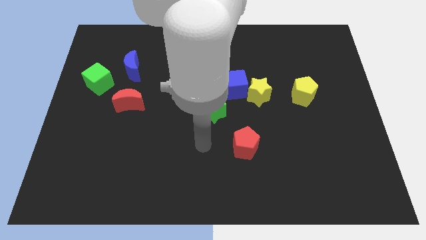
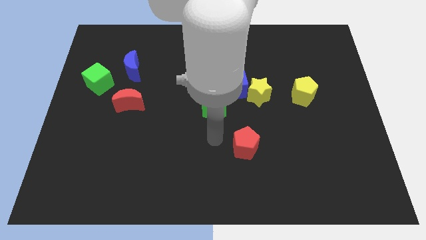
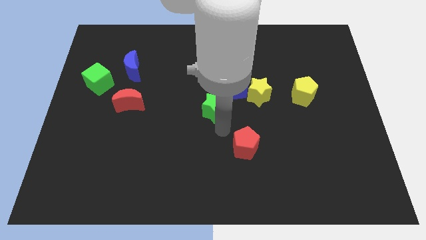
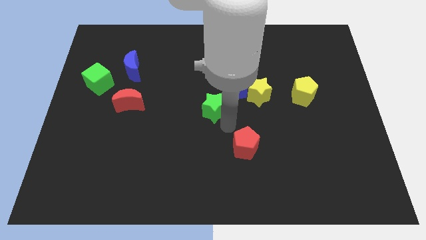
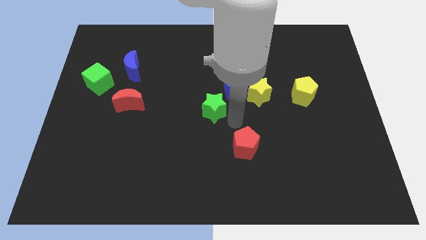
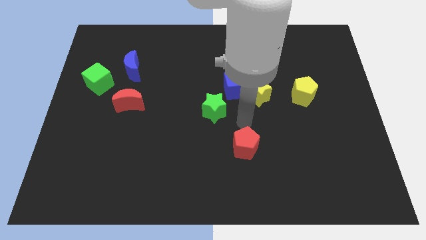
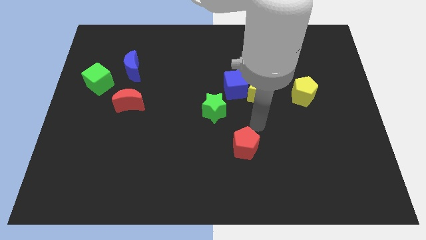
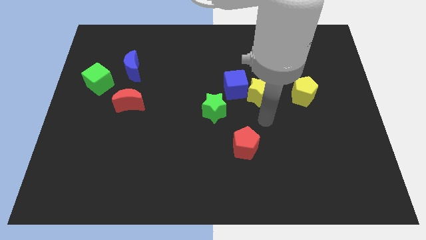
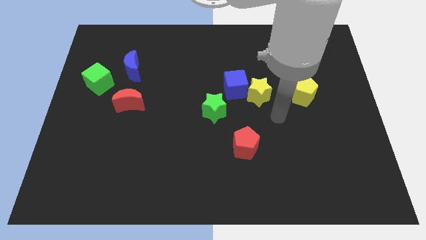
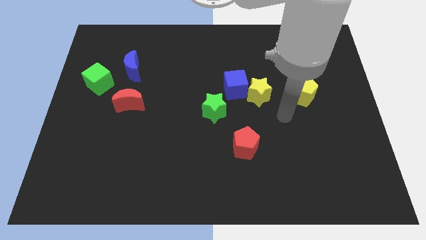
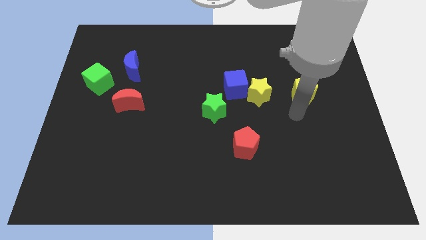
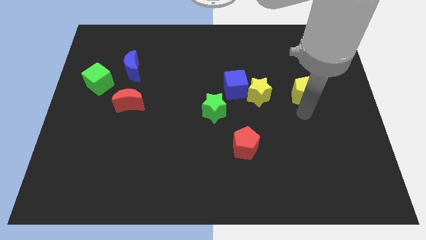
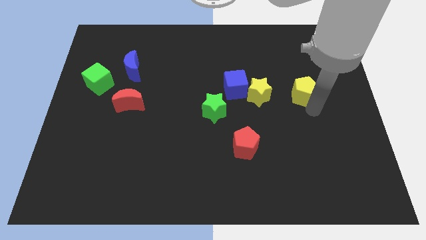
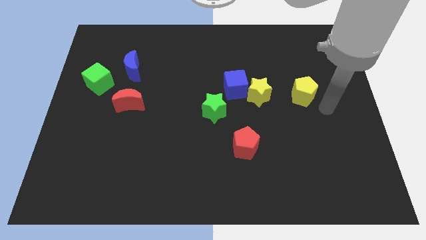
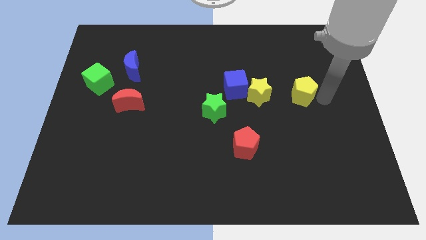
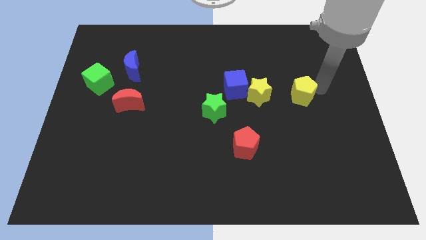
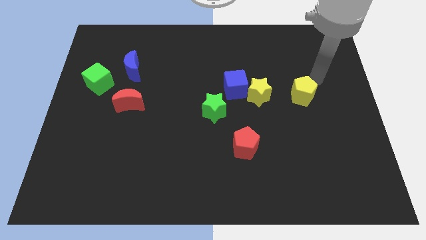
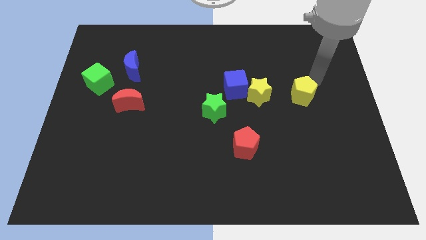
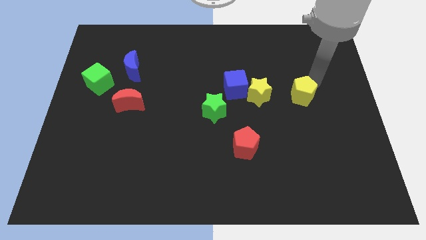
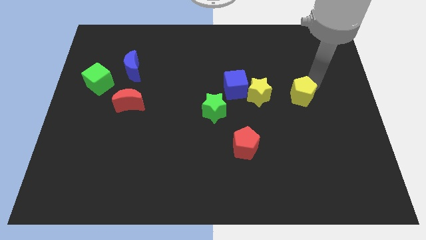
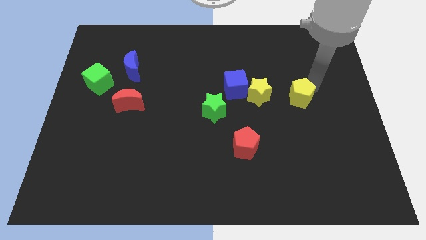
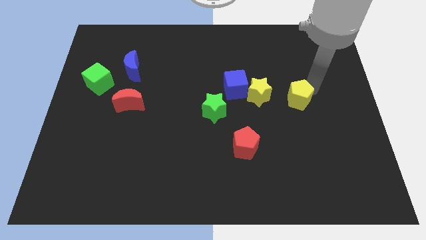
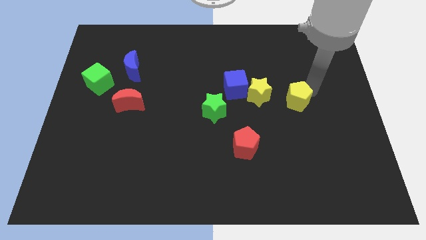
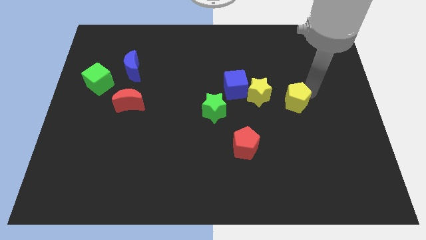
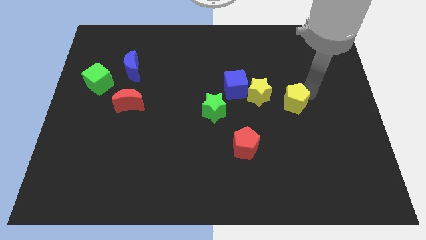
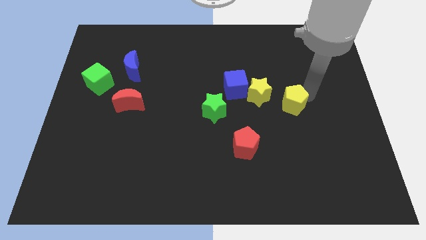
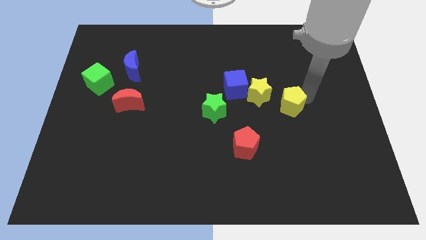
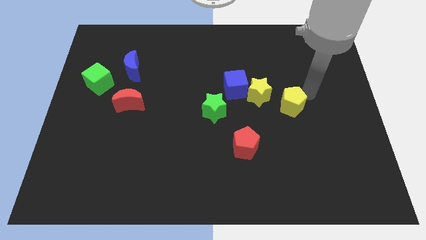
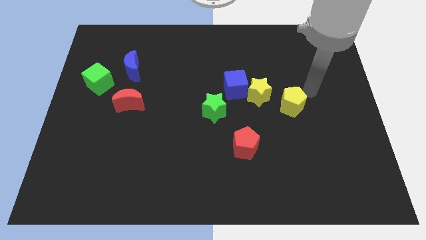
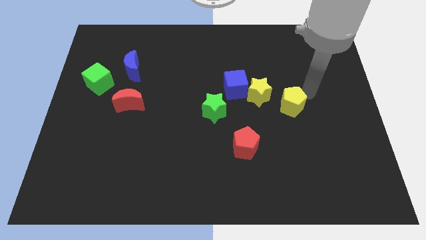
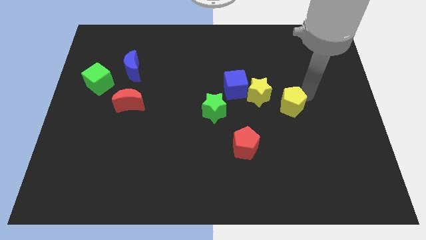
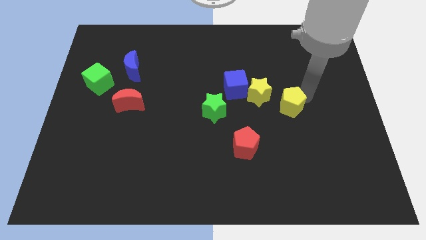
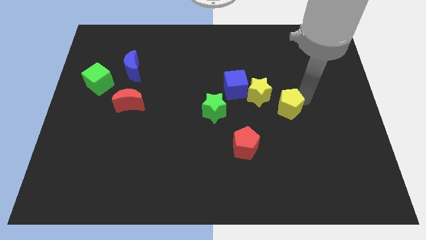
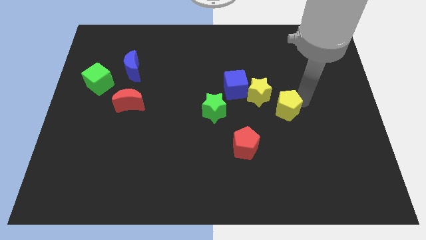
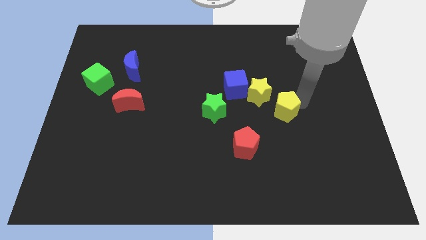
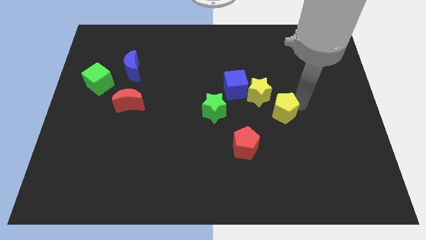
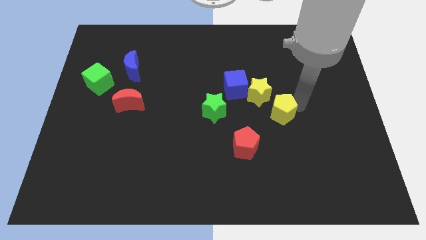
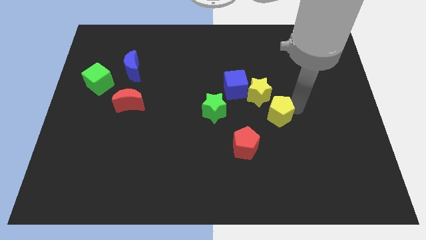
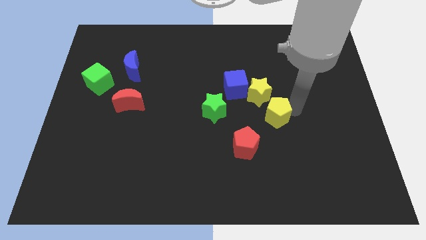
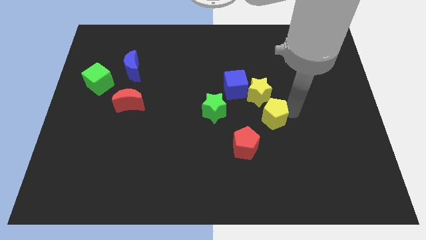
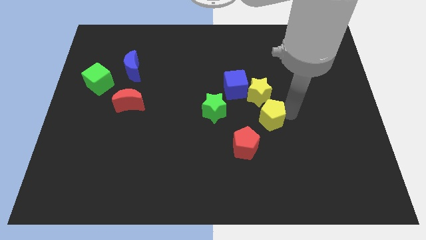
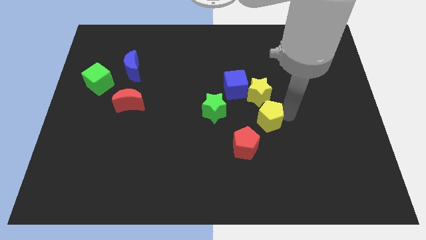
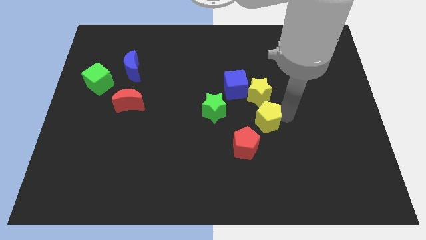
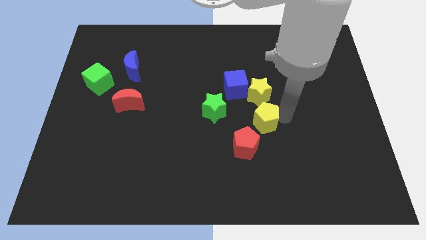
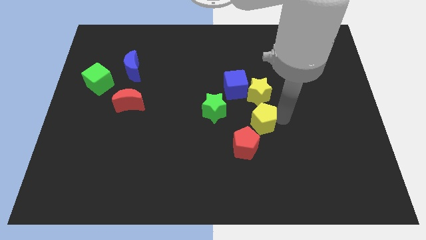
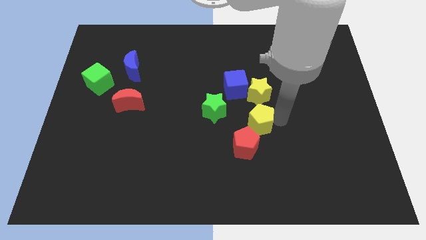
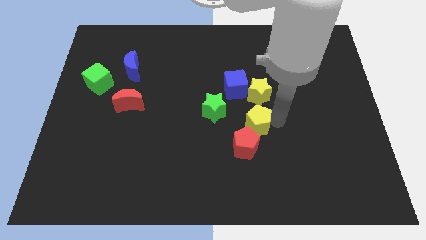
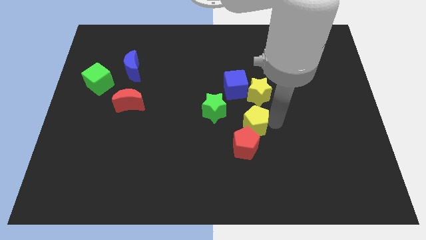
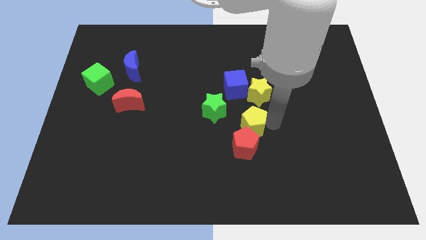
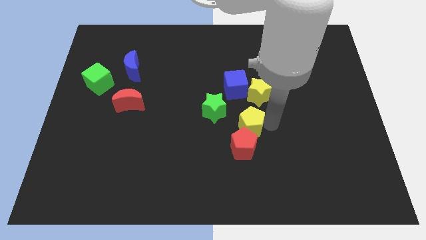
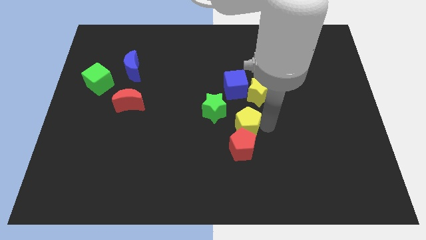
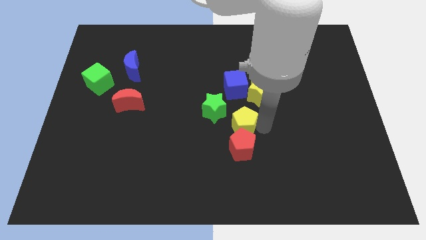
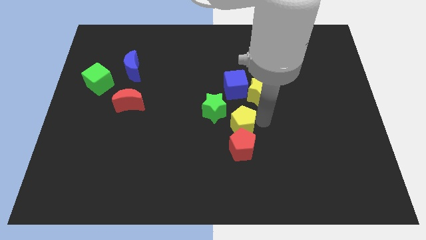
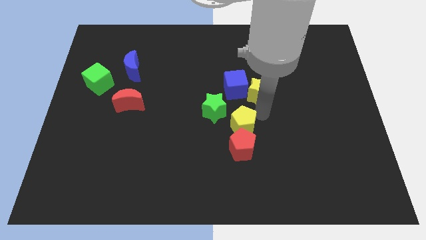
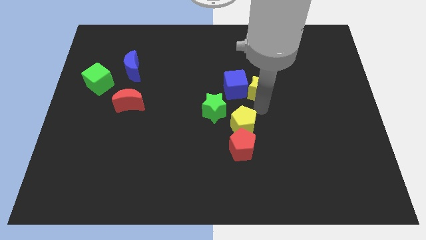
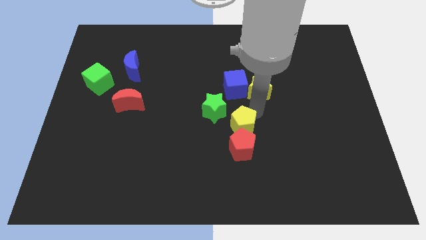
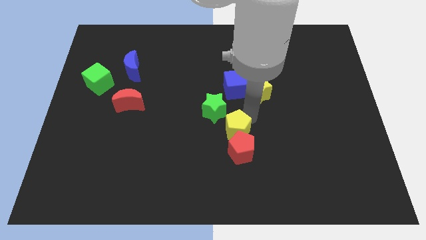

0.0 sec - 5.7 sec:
move the yellow pentagon below the green star

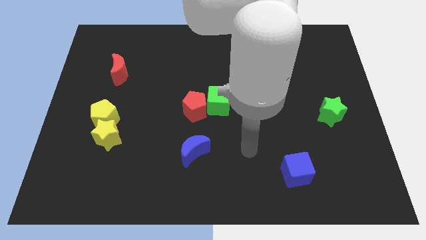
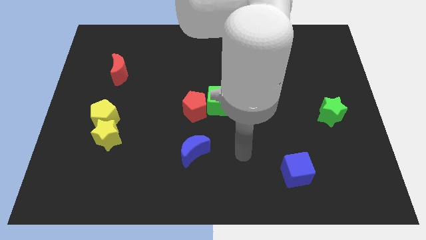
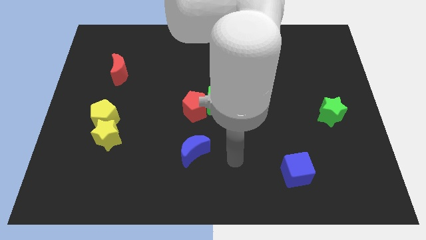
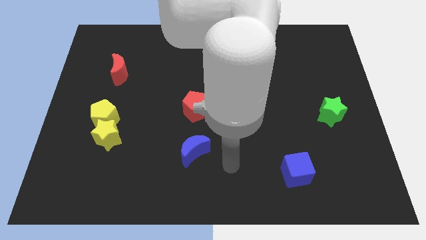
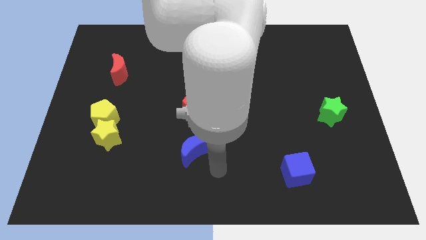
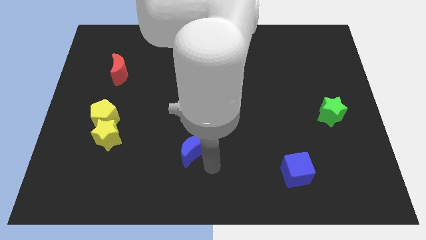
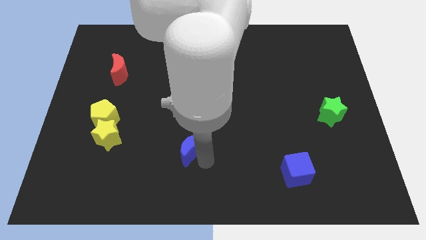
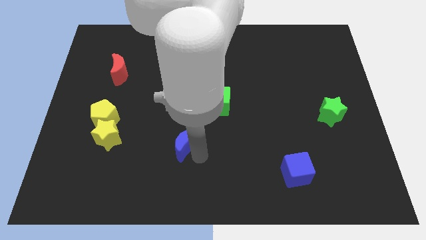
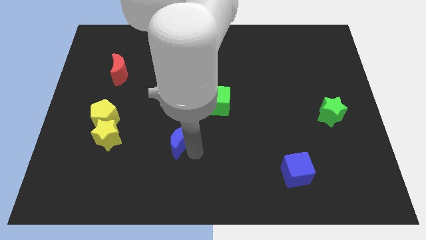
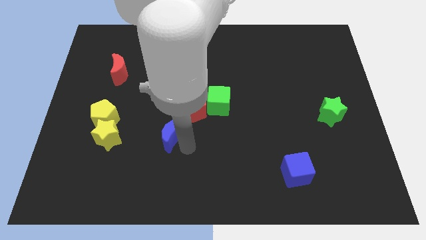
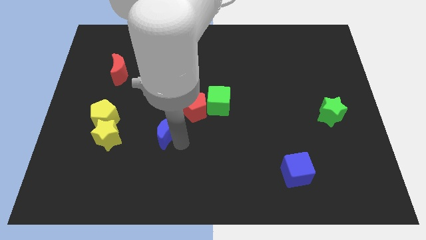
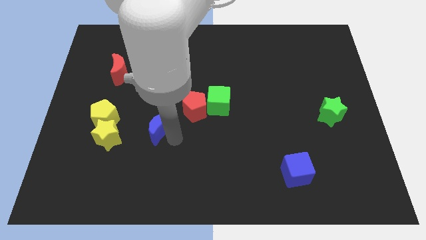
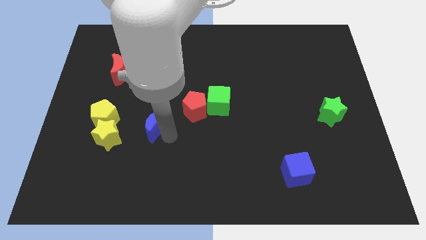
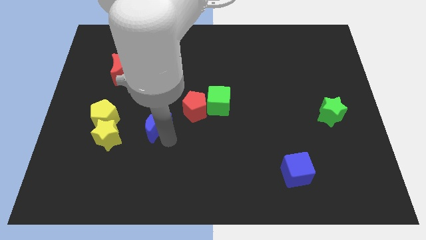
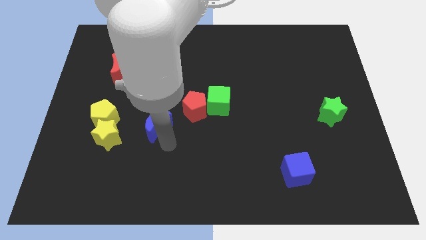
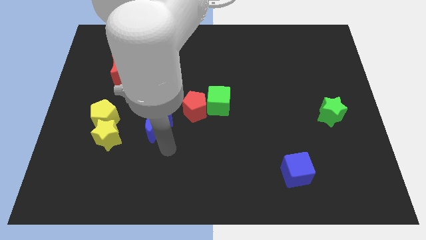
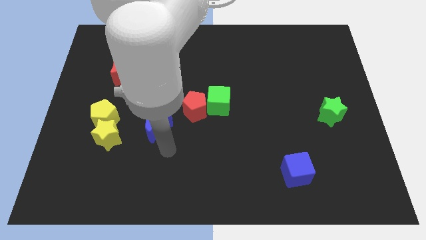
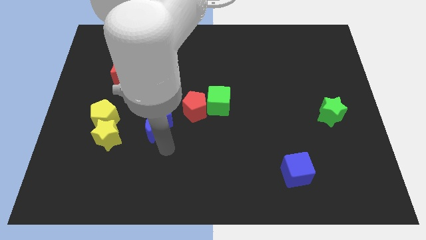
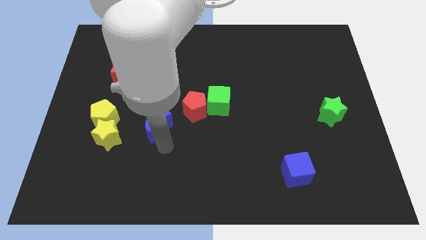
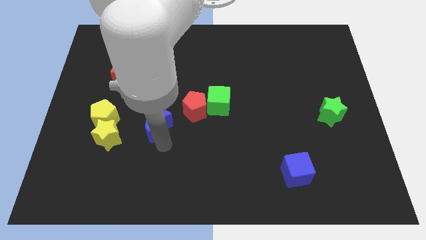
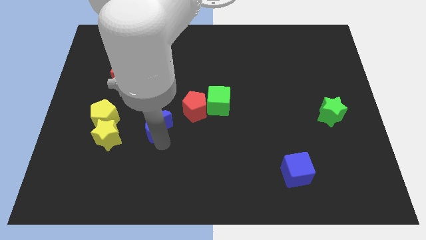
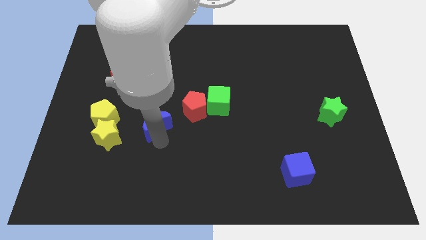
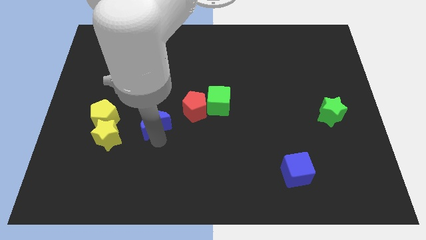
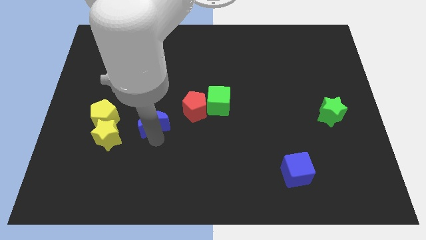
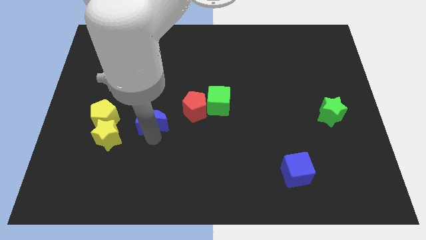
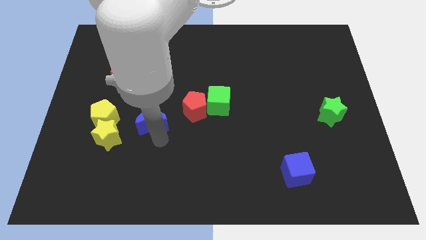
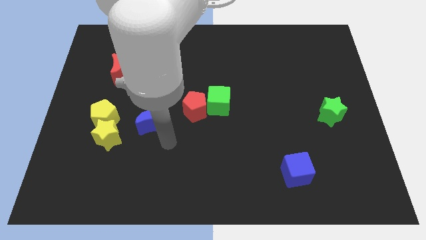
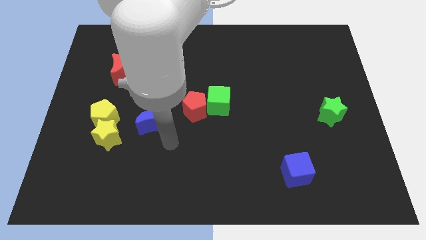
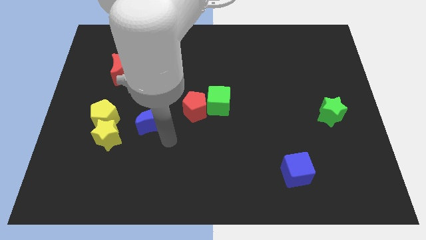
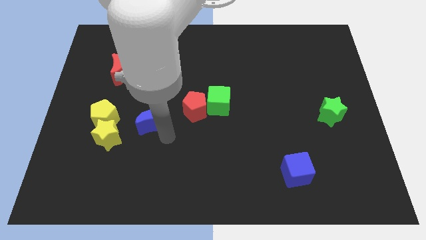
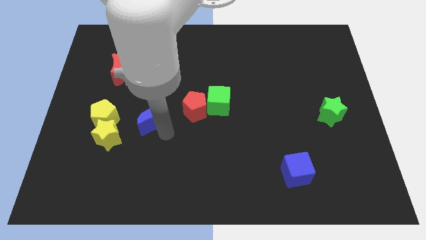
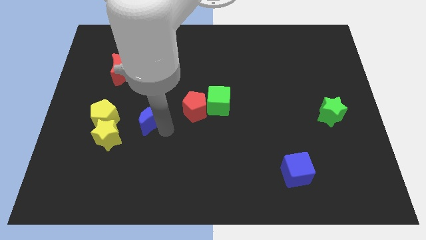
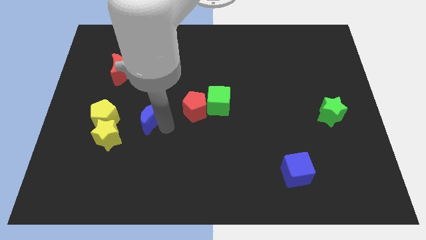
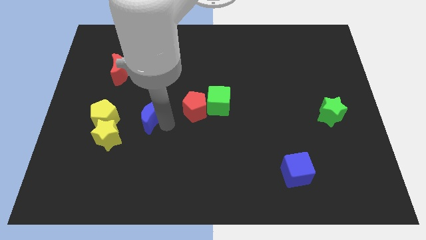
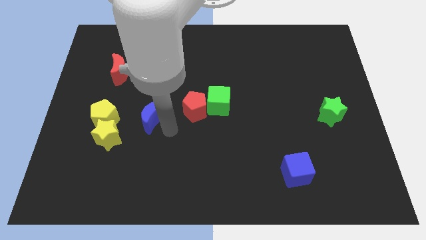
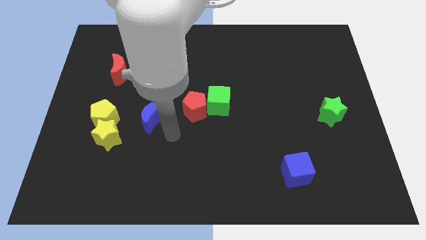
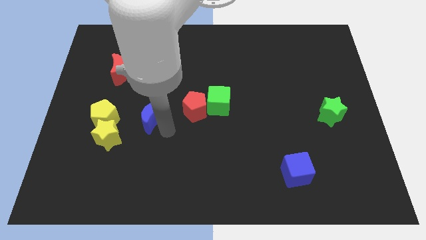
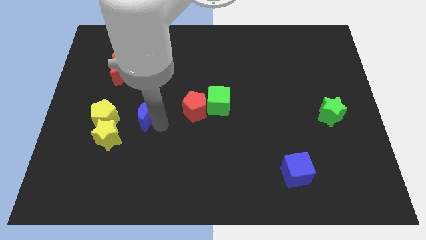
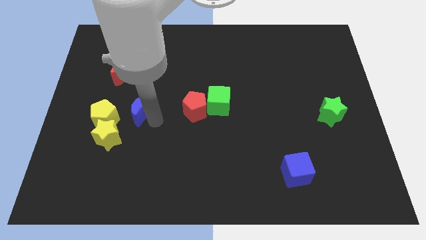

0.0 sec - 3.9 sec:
slide the blue moon to the top right of the yellow pentagon
